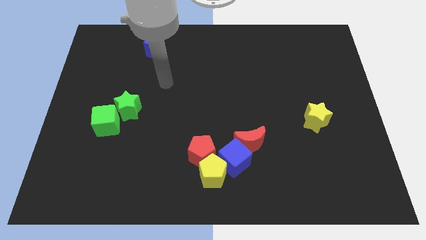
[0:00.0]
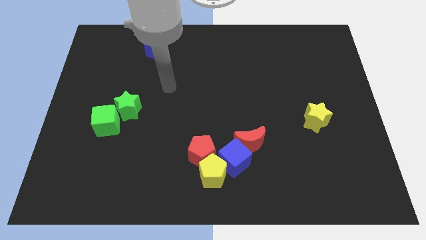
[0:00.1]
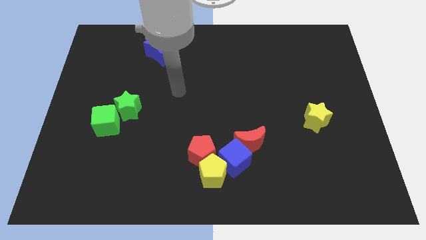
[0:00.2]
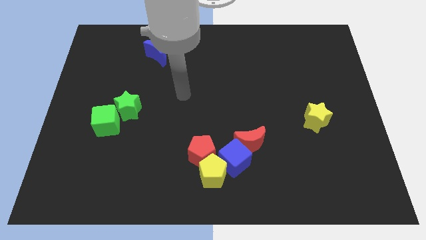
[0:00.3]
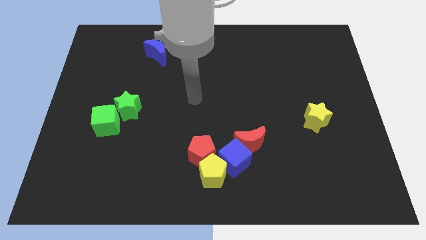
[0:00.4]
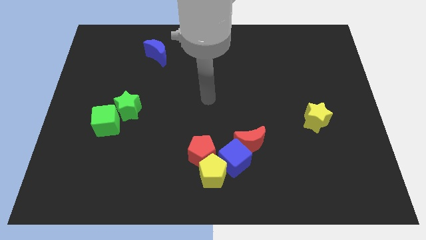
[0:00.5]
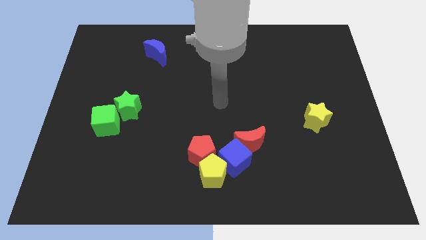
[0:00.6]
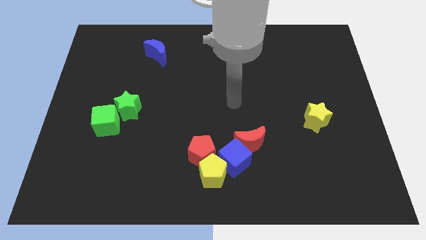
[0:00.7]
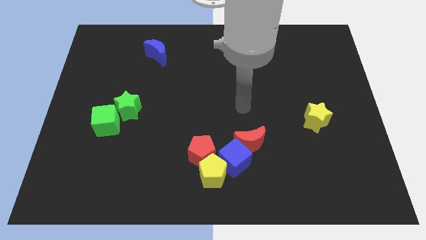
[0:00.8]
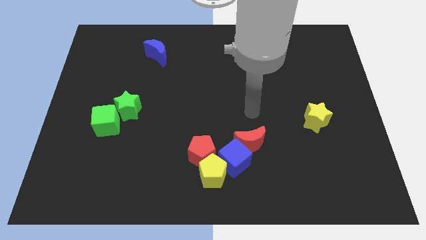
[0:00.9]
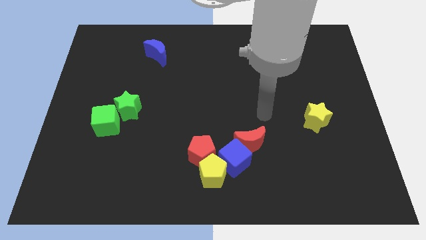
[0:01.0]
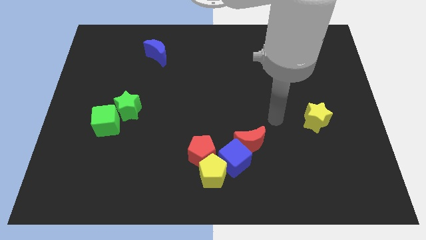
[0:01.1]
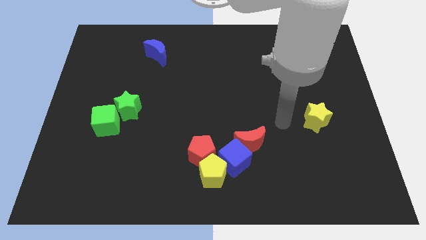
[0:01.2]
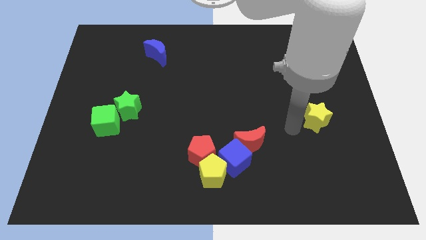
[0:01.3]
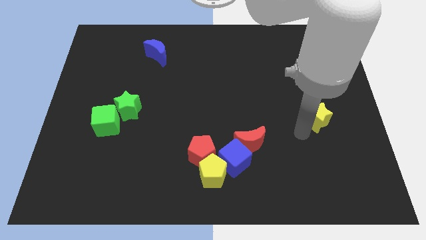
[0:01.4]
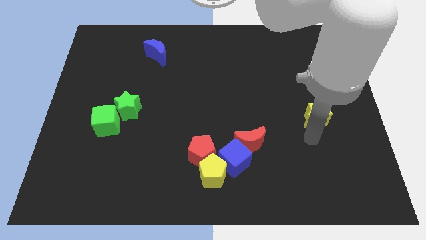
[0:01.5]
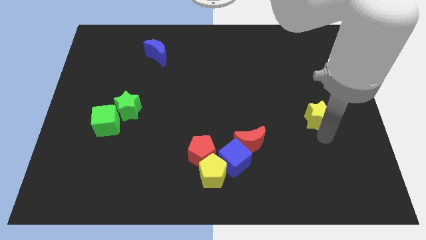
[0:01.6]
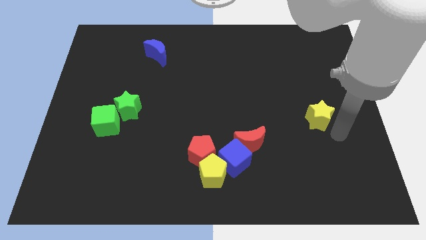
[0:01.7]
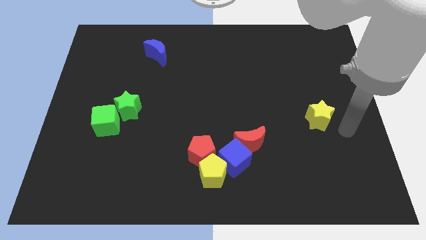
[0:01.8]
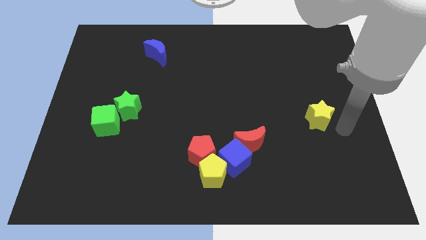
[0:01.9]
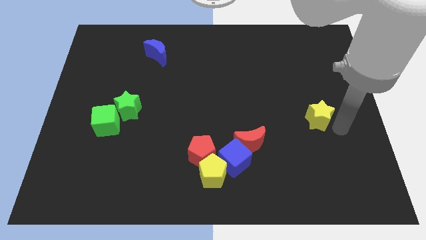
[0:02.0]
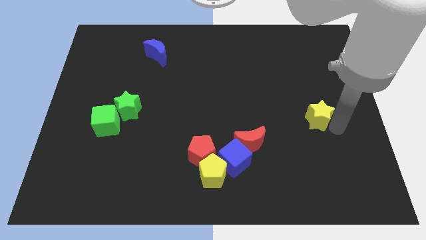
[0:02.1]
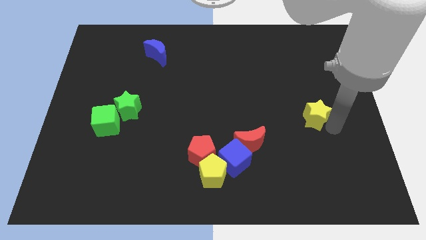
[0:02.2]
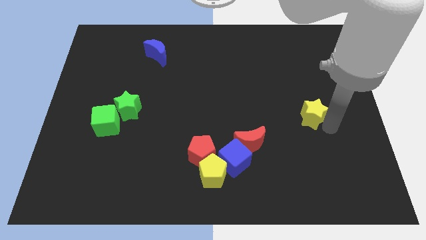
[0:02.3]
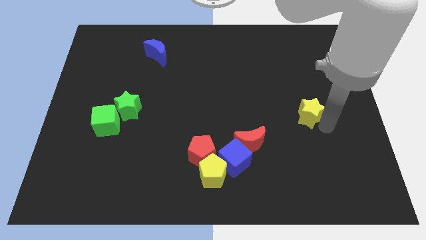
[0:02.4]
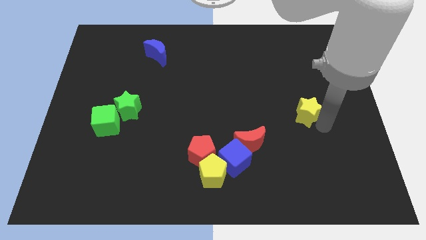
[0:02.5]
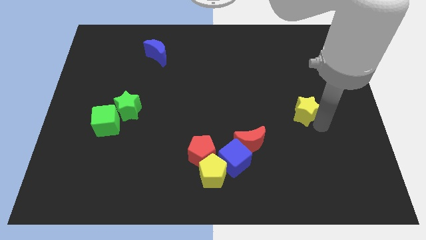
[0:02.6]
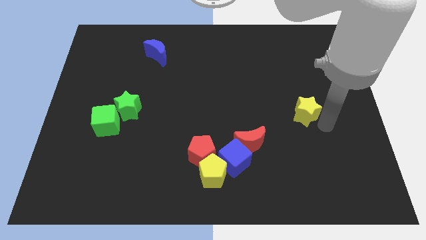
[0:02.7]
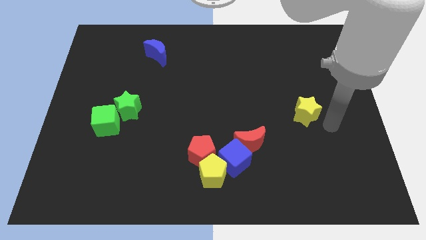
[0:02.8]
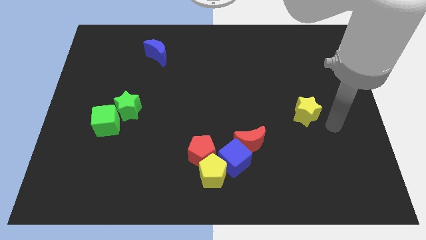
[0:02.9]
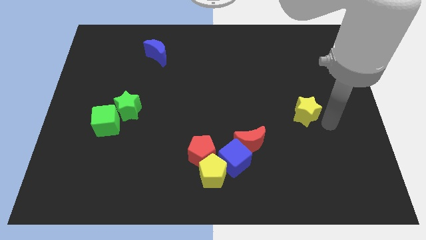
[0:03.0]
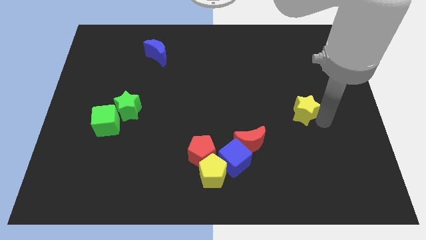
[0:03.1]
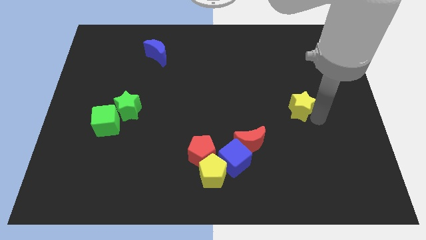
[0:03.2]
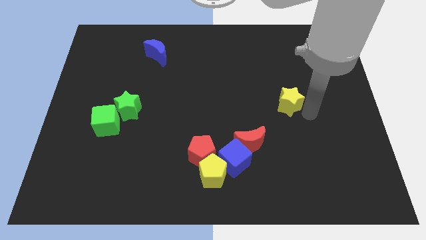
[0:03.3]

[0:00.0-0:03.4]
slightly push the yellow star diagonally up and to the left

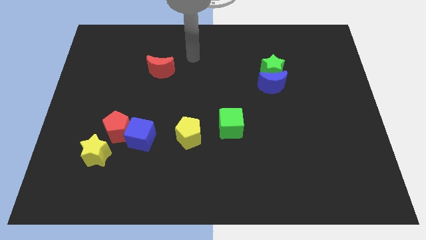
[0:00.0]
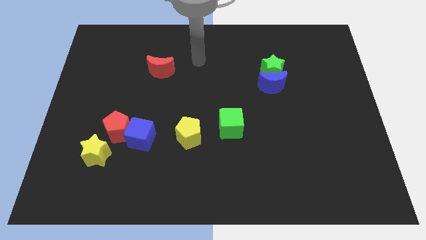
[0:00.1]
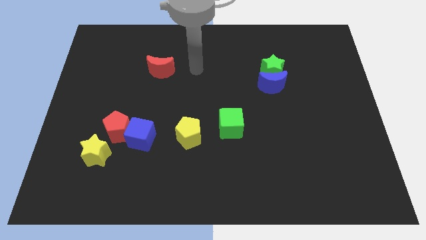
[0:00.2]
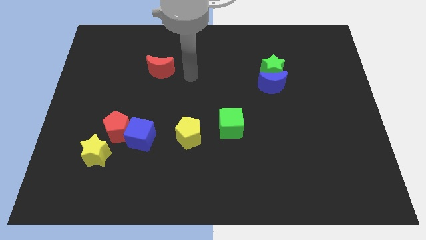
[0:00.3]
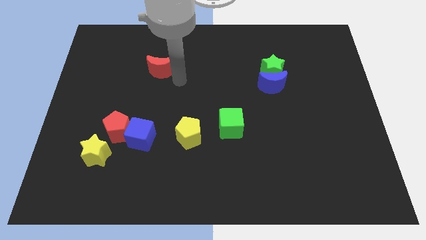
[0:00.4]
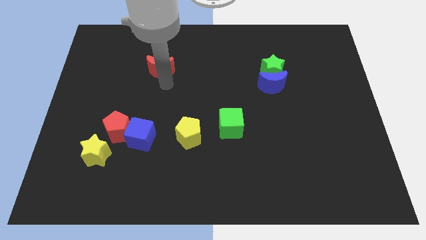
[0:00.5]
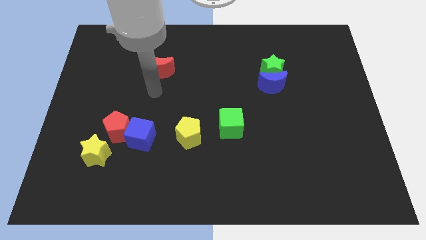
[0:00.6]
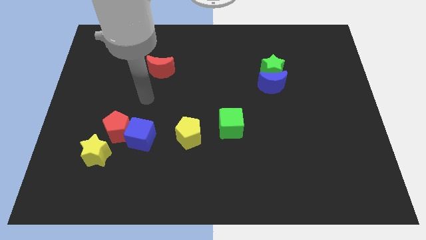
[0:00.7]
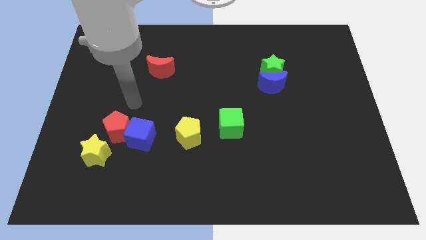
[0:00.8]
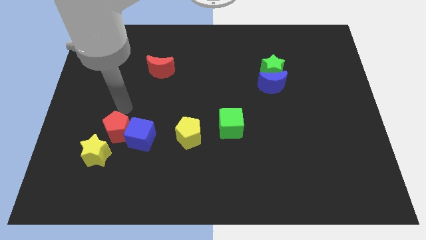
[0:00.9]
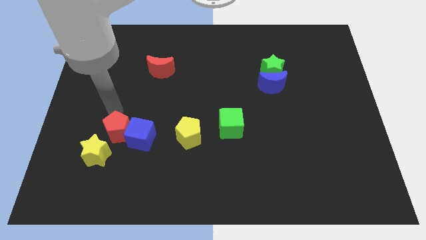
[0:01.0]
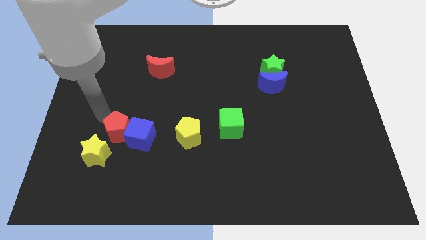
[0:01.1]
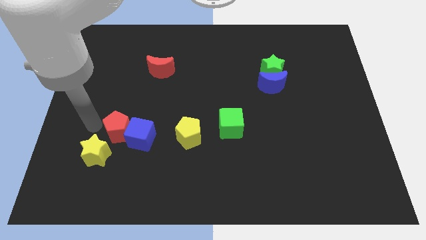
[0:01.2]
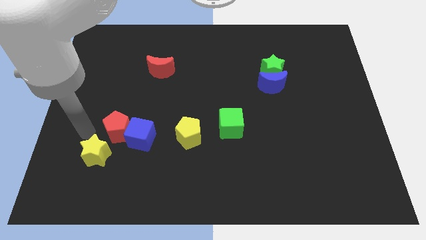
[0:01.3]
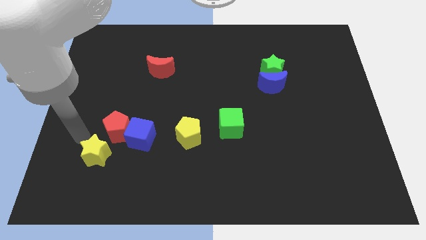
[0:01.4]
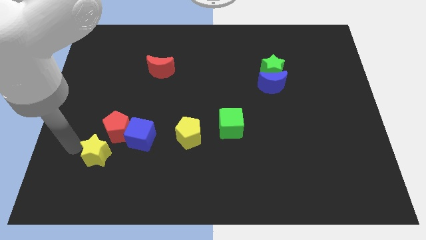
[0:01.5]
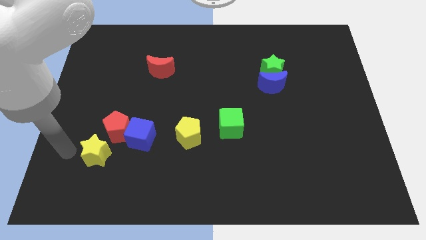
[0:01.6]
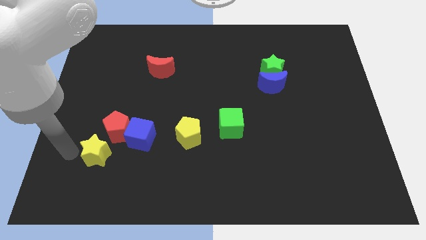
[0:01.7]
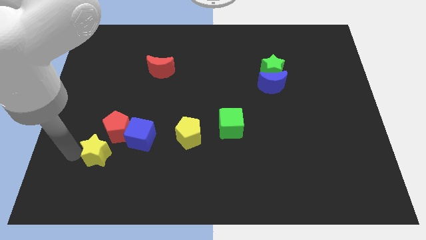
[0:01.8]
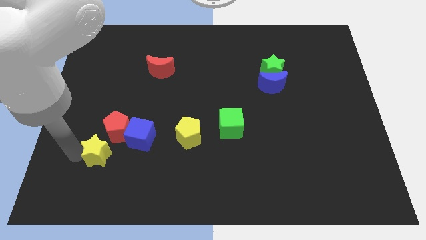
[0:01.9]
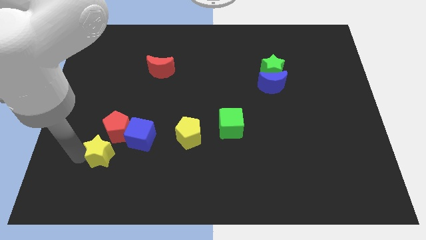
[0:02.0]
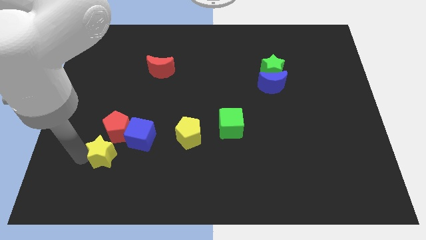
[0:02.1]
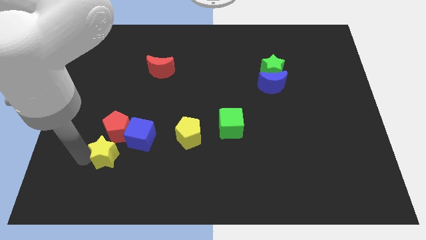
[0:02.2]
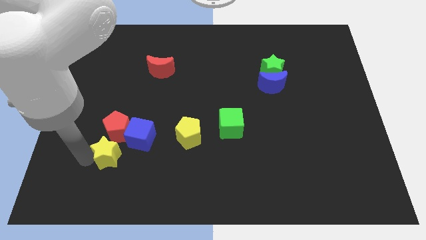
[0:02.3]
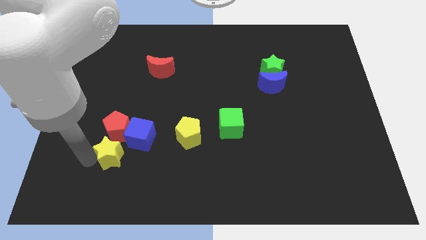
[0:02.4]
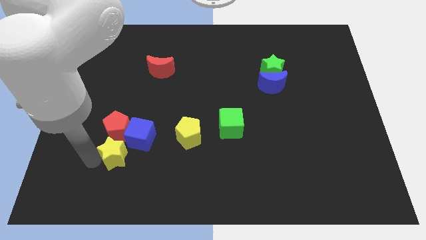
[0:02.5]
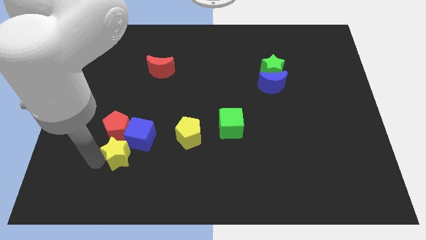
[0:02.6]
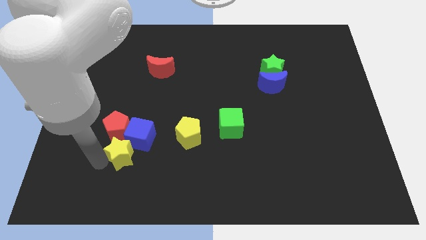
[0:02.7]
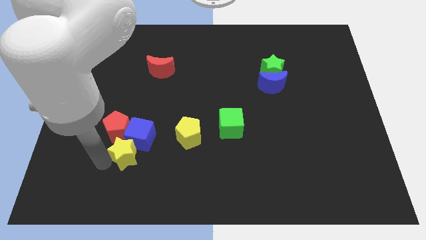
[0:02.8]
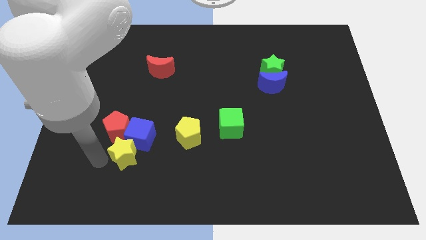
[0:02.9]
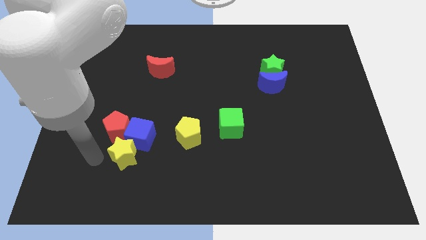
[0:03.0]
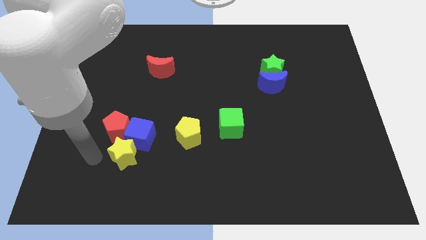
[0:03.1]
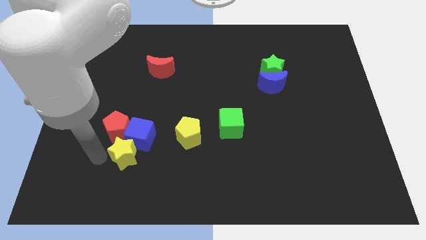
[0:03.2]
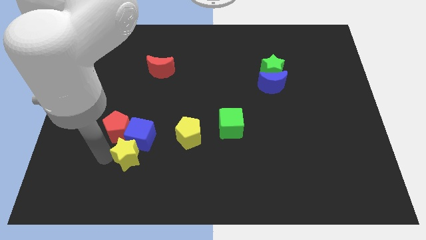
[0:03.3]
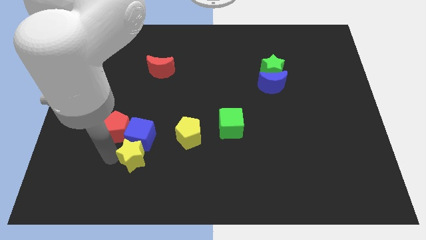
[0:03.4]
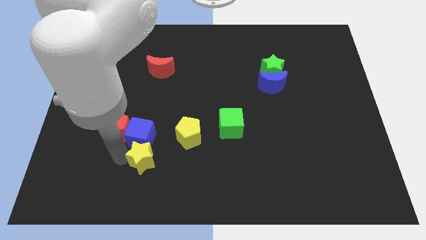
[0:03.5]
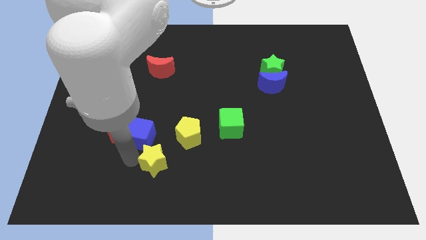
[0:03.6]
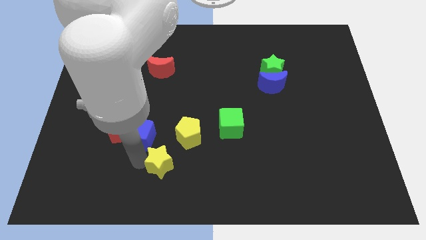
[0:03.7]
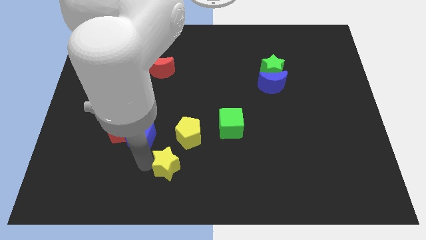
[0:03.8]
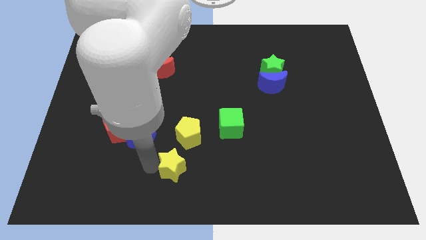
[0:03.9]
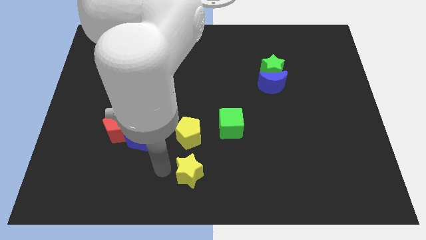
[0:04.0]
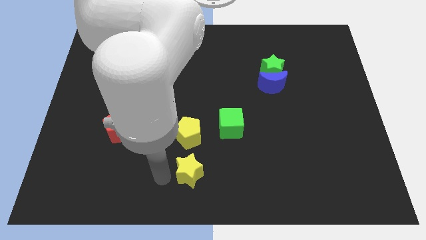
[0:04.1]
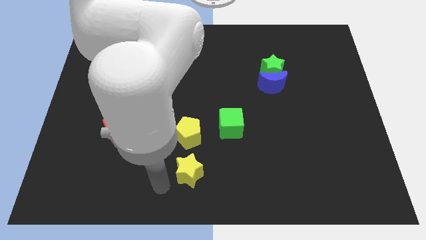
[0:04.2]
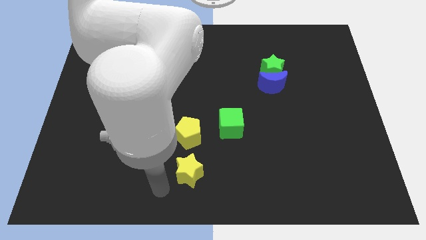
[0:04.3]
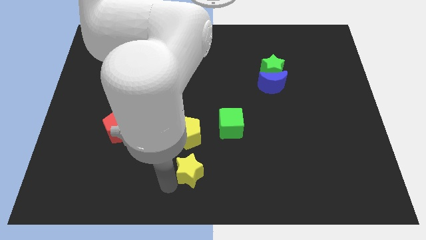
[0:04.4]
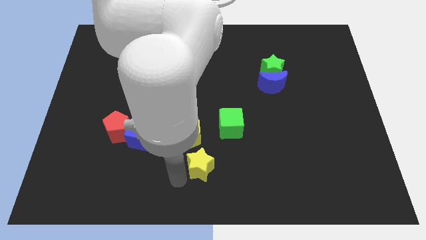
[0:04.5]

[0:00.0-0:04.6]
slide the yellow star right
